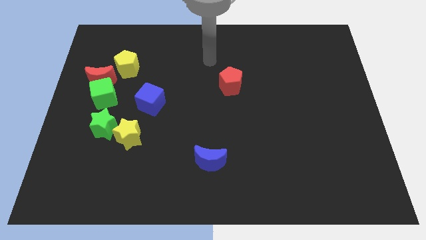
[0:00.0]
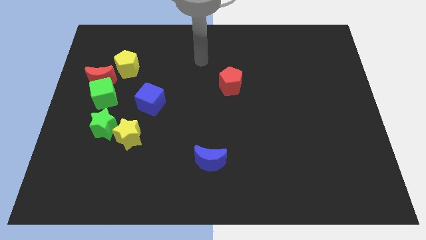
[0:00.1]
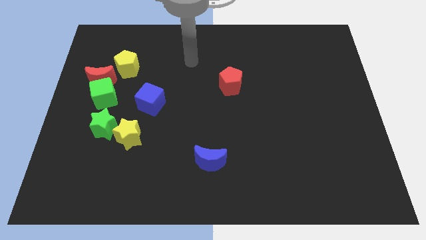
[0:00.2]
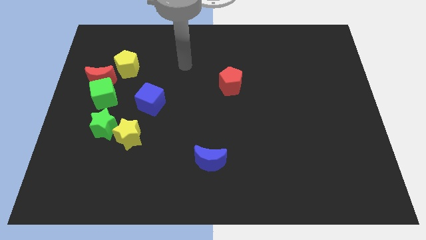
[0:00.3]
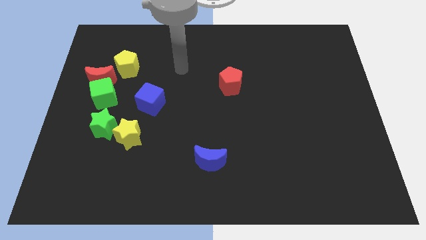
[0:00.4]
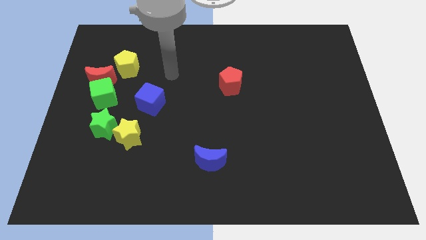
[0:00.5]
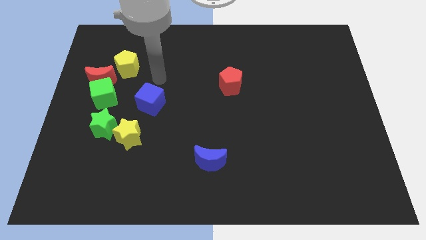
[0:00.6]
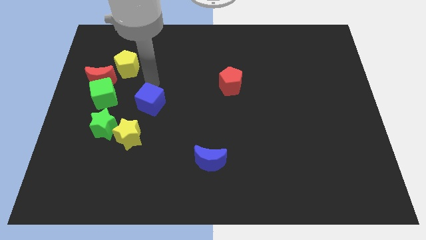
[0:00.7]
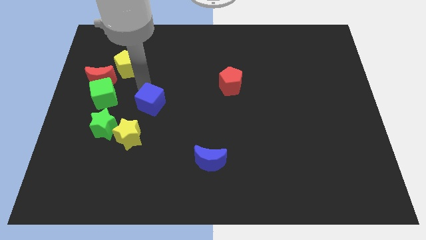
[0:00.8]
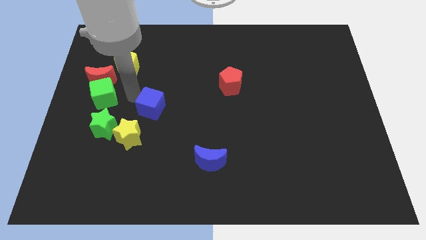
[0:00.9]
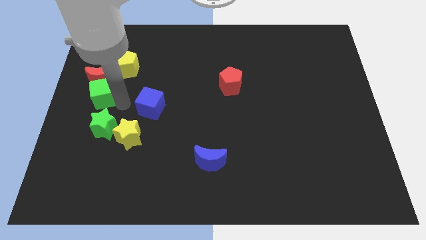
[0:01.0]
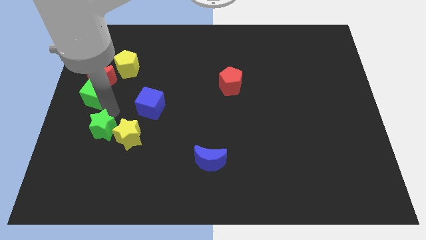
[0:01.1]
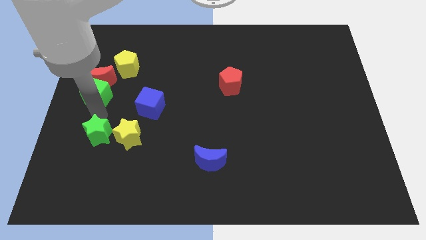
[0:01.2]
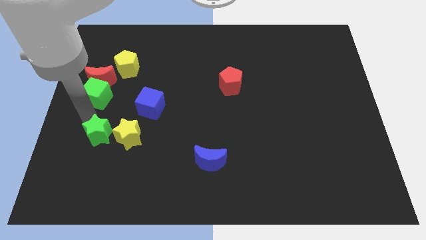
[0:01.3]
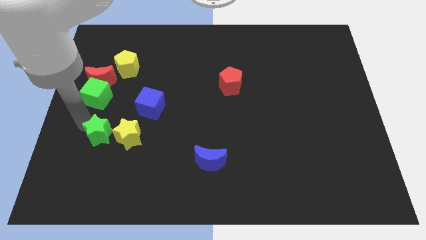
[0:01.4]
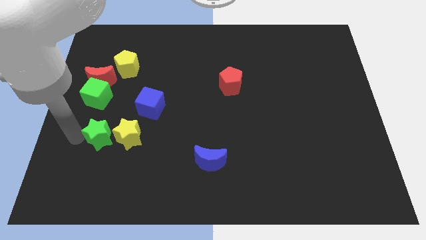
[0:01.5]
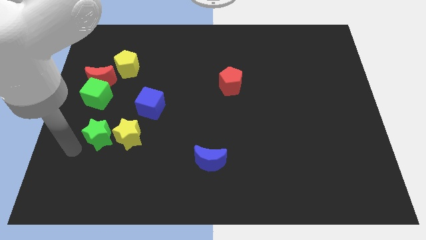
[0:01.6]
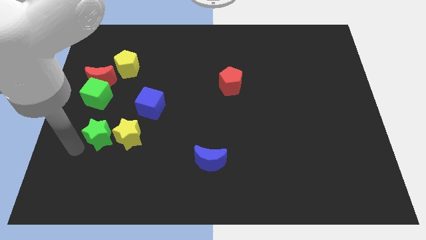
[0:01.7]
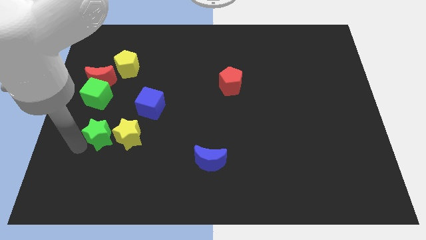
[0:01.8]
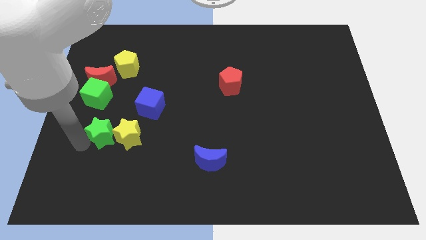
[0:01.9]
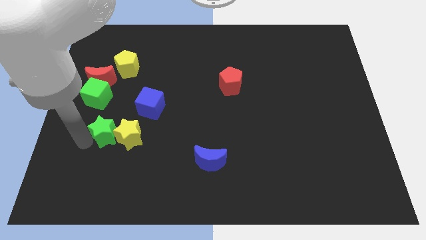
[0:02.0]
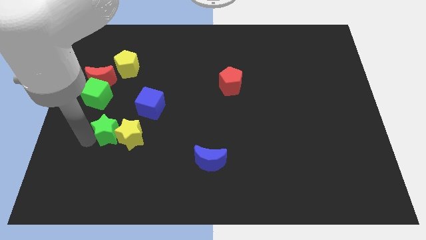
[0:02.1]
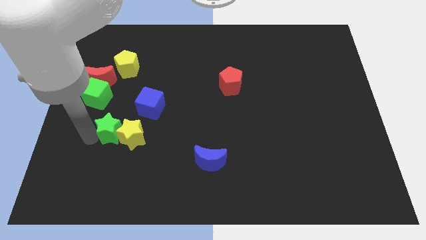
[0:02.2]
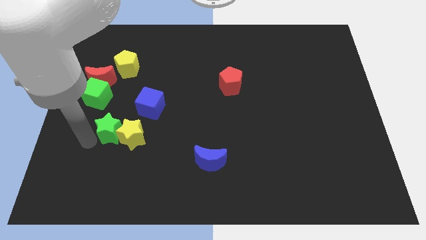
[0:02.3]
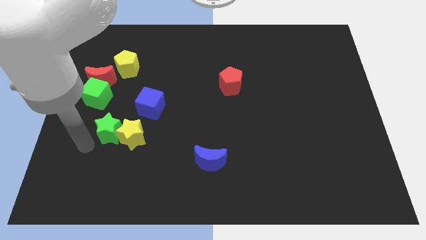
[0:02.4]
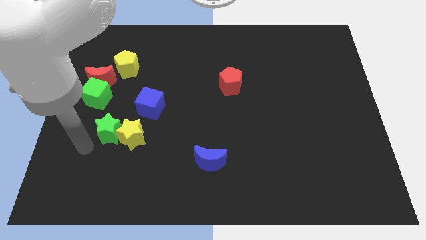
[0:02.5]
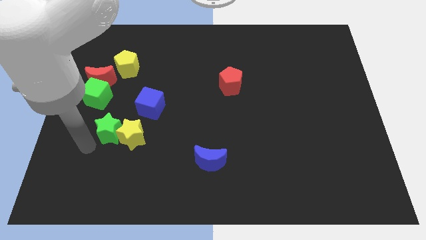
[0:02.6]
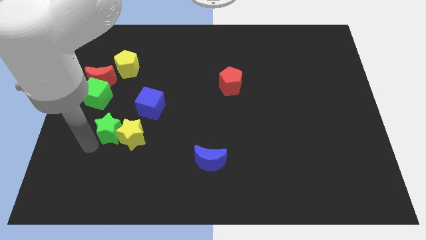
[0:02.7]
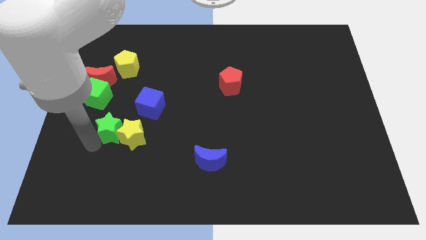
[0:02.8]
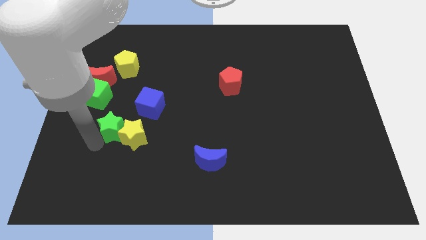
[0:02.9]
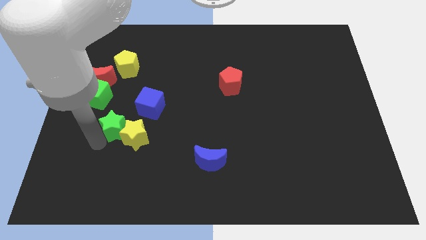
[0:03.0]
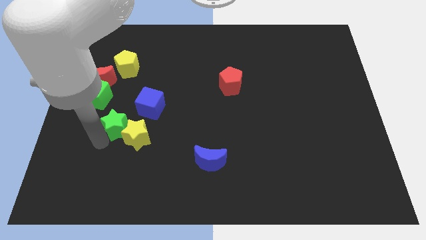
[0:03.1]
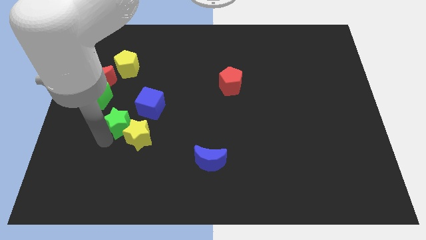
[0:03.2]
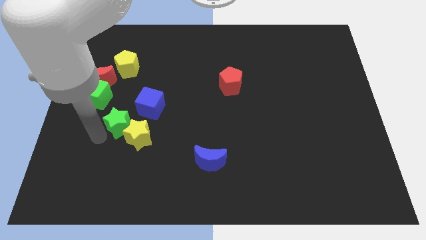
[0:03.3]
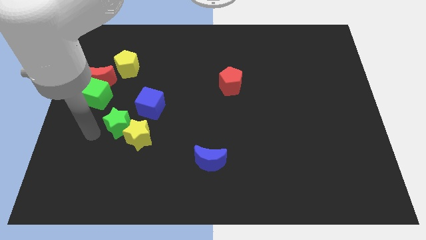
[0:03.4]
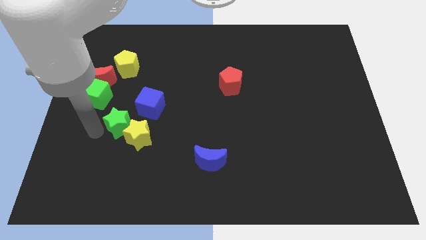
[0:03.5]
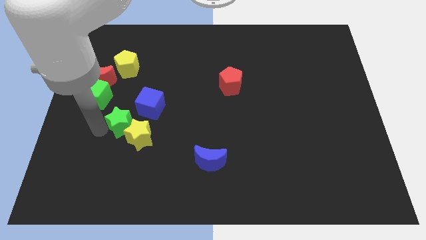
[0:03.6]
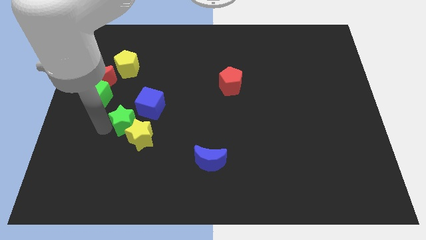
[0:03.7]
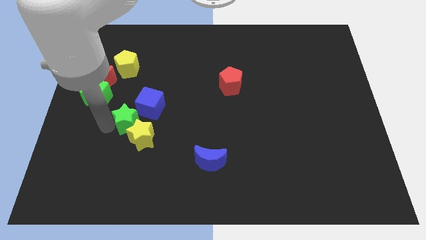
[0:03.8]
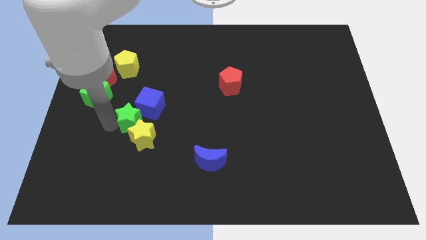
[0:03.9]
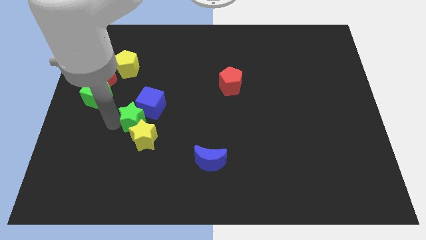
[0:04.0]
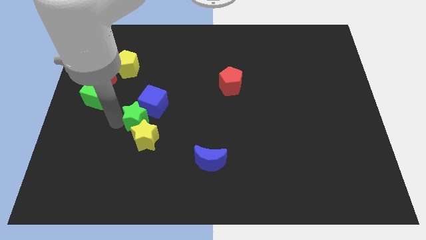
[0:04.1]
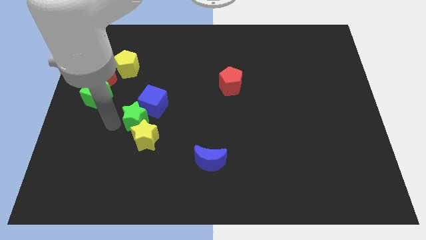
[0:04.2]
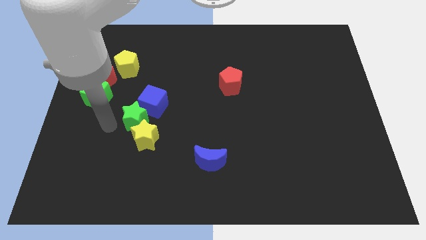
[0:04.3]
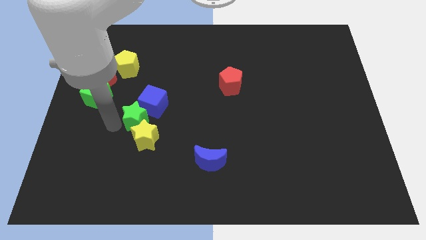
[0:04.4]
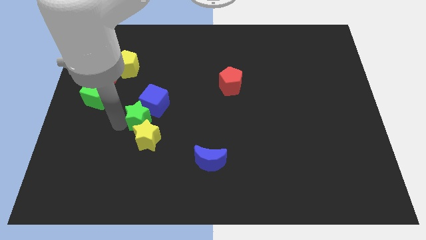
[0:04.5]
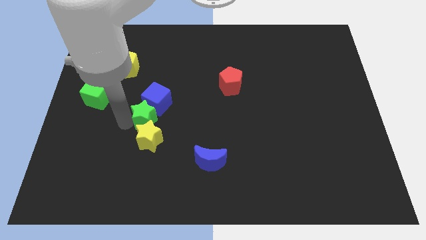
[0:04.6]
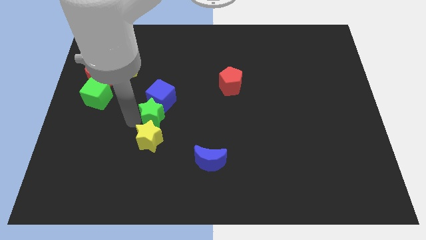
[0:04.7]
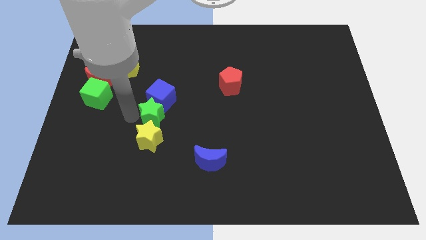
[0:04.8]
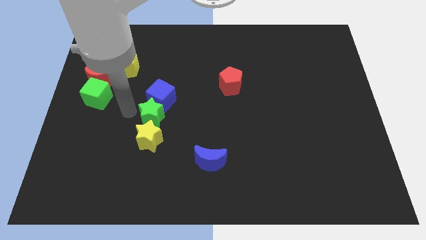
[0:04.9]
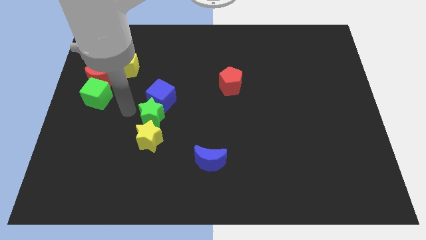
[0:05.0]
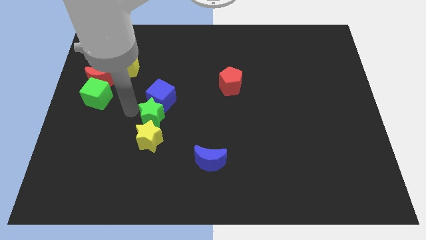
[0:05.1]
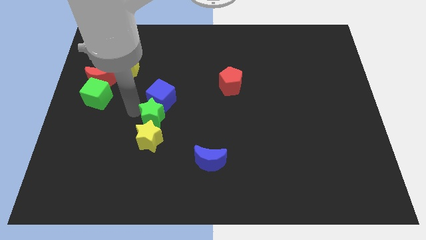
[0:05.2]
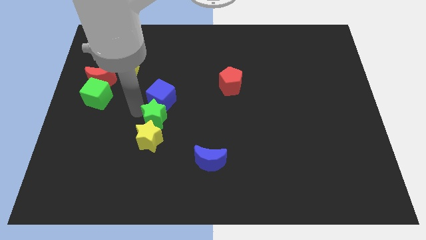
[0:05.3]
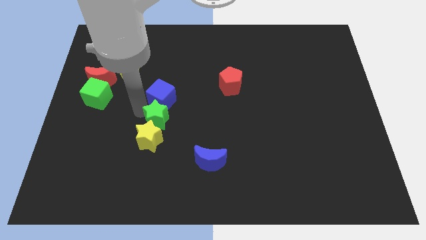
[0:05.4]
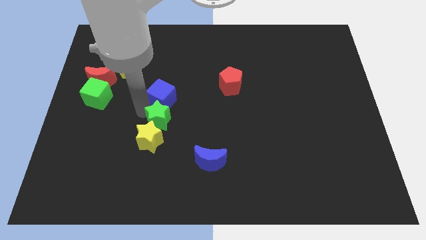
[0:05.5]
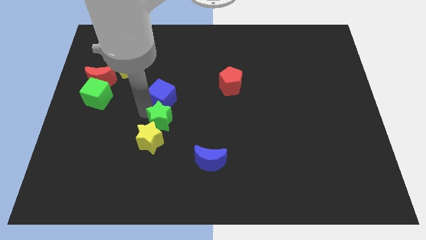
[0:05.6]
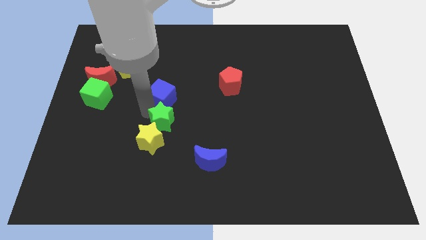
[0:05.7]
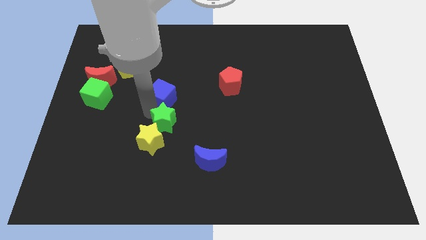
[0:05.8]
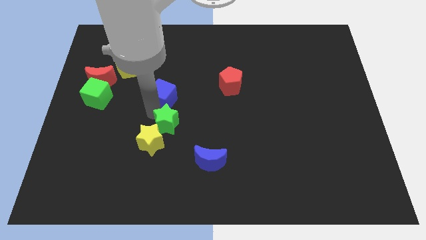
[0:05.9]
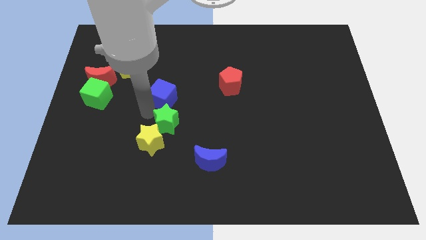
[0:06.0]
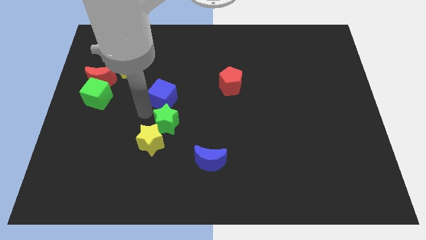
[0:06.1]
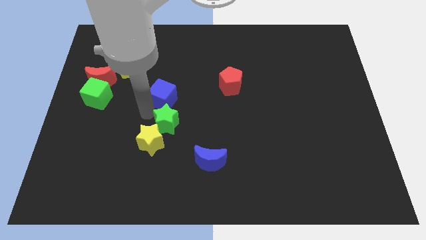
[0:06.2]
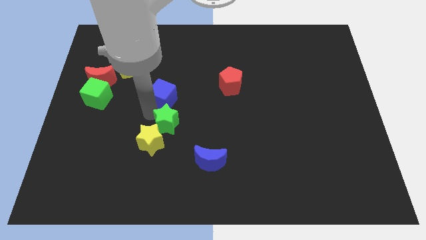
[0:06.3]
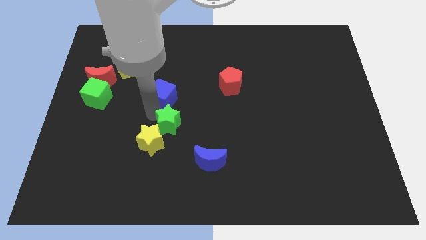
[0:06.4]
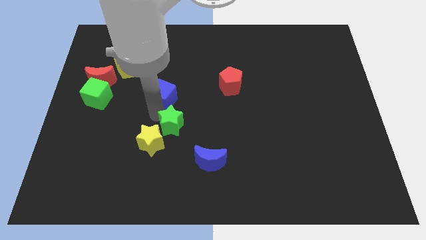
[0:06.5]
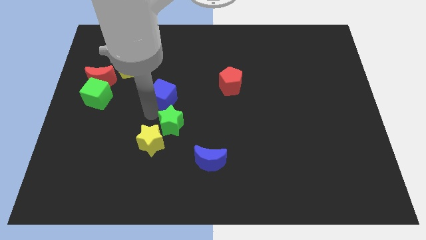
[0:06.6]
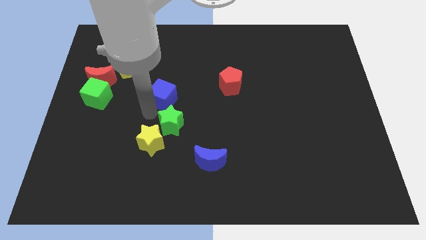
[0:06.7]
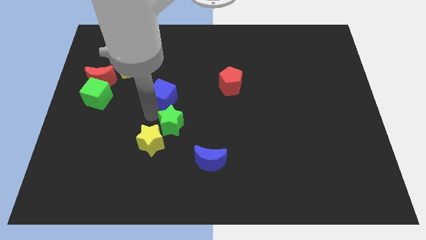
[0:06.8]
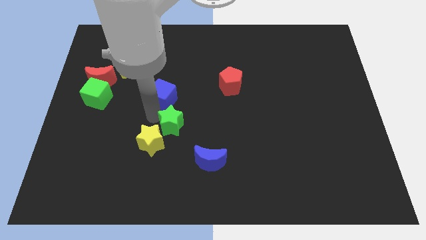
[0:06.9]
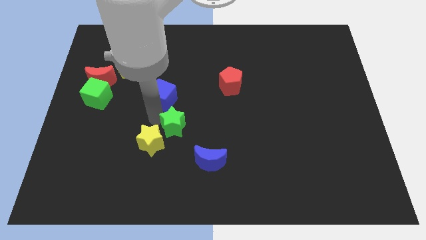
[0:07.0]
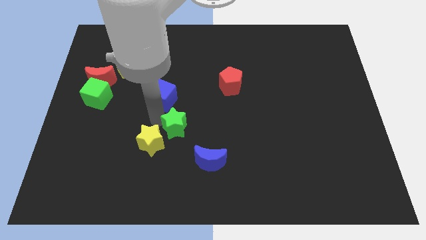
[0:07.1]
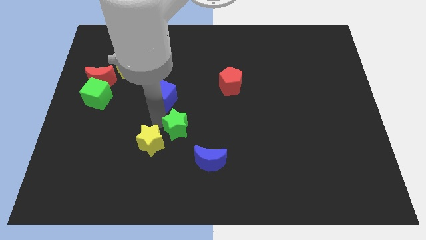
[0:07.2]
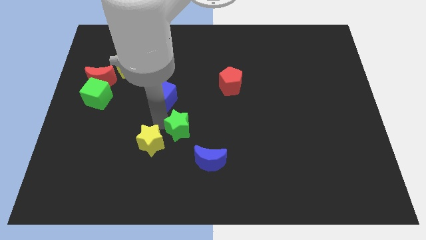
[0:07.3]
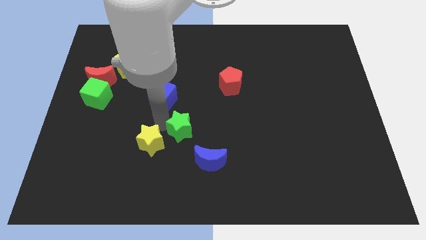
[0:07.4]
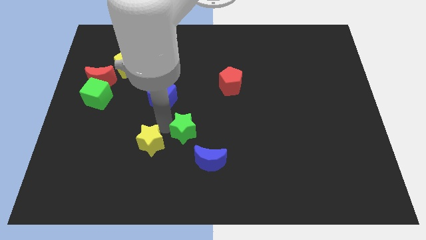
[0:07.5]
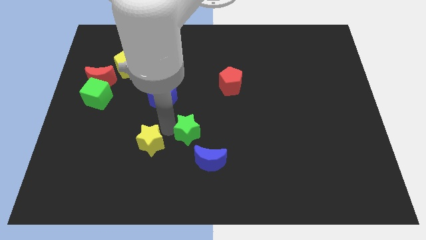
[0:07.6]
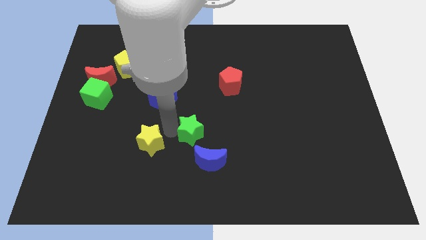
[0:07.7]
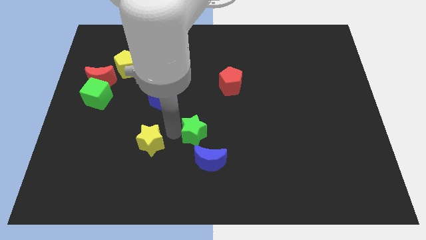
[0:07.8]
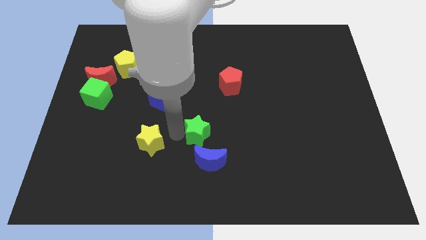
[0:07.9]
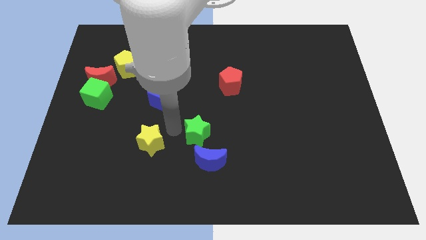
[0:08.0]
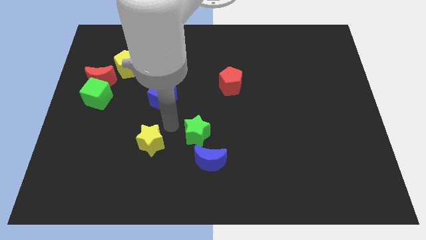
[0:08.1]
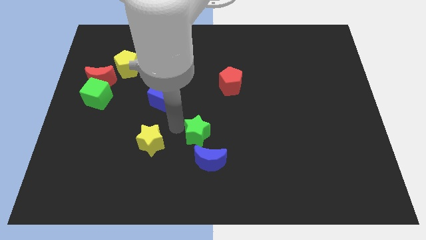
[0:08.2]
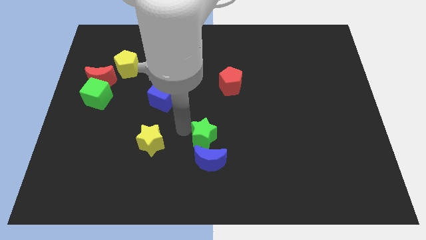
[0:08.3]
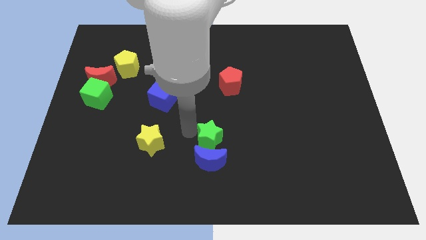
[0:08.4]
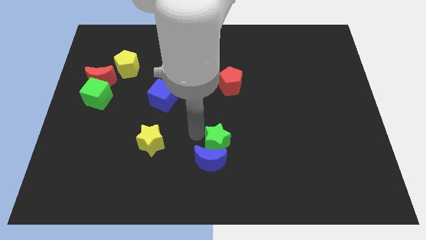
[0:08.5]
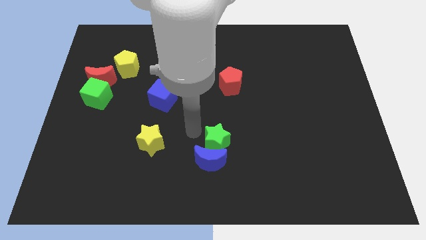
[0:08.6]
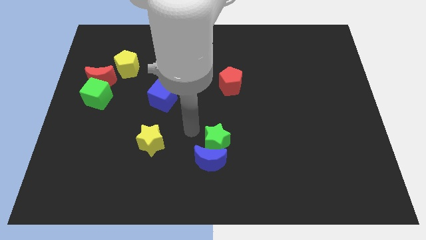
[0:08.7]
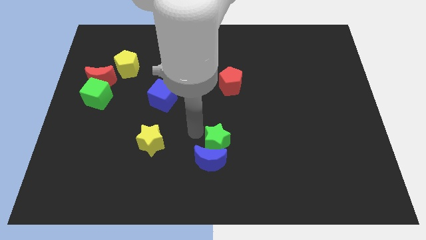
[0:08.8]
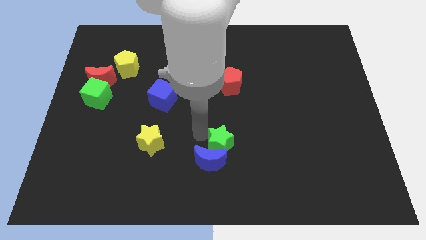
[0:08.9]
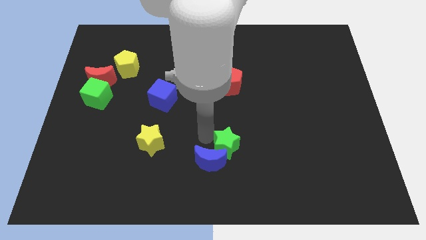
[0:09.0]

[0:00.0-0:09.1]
slide the green star to the right side of the blue moon
